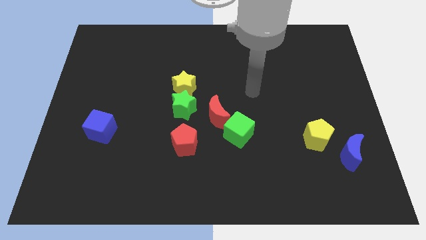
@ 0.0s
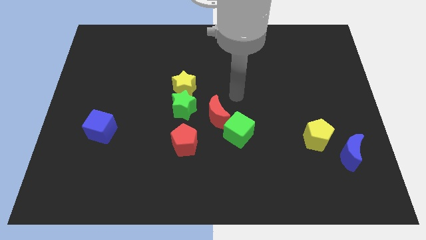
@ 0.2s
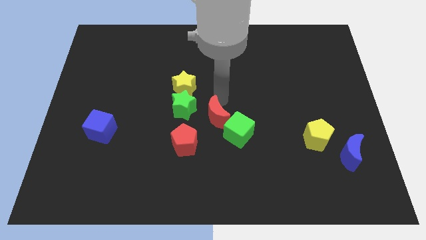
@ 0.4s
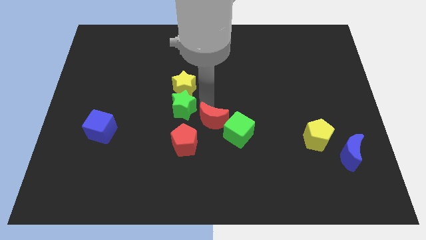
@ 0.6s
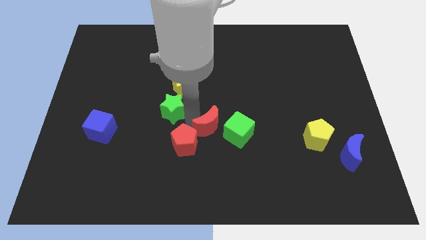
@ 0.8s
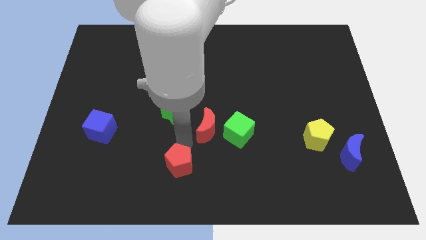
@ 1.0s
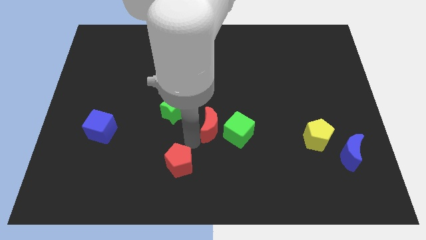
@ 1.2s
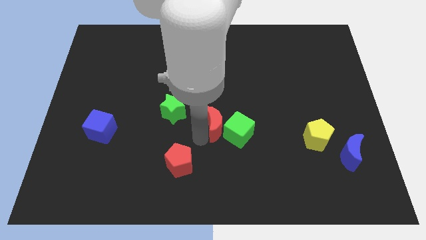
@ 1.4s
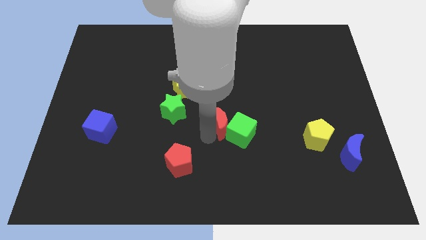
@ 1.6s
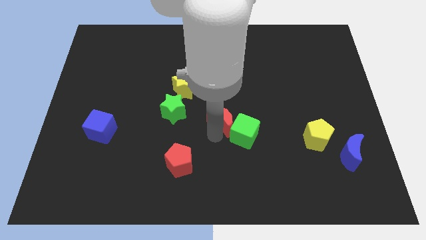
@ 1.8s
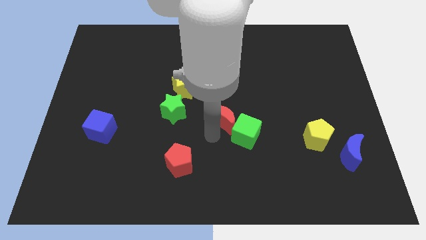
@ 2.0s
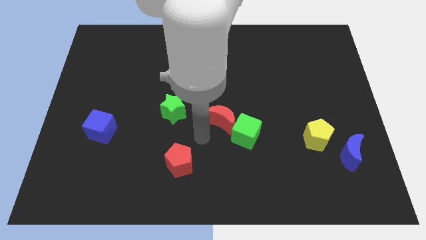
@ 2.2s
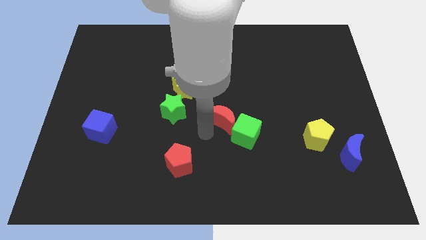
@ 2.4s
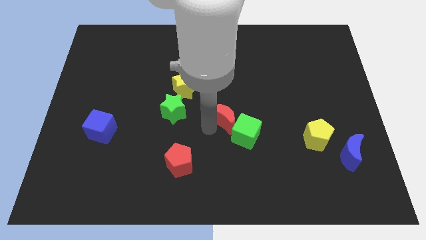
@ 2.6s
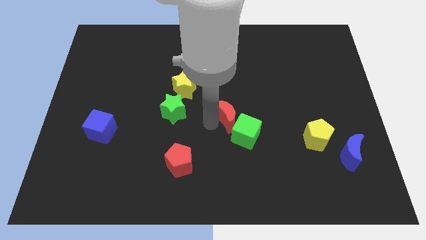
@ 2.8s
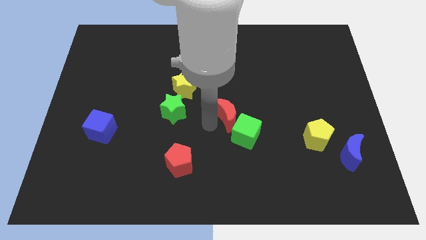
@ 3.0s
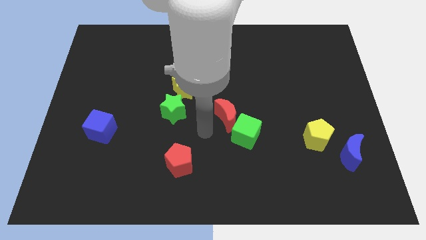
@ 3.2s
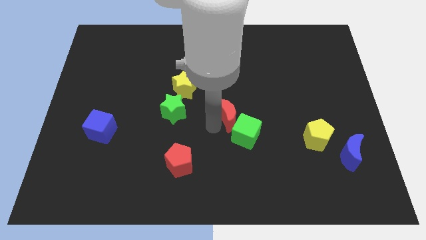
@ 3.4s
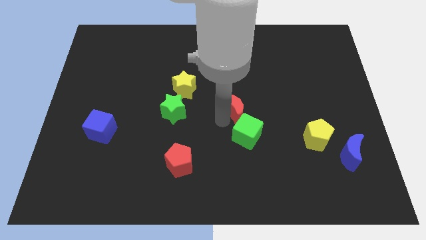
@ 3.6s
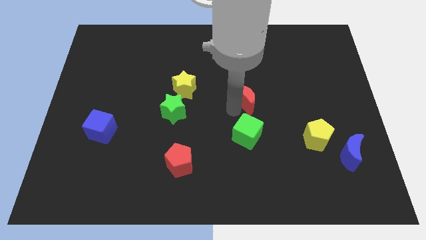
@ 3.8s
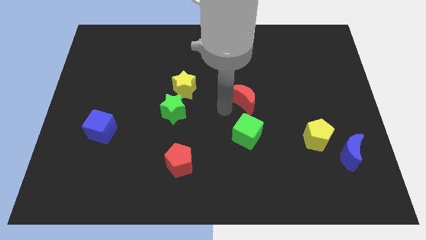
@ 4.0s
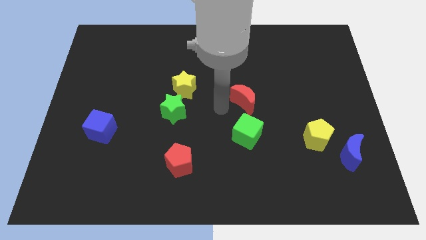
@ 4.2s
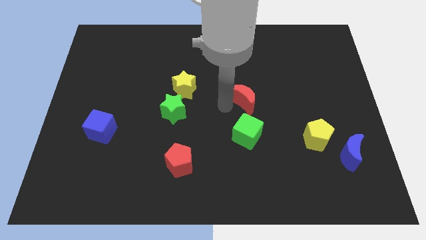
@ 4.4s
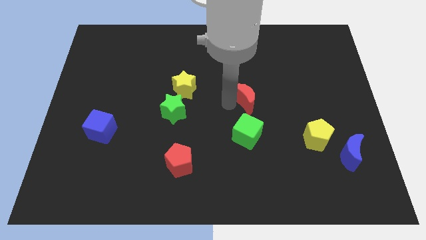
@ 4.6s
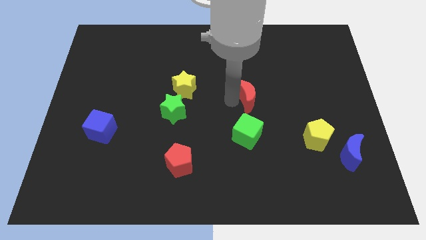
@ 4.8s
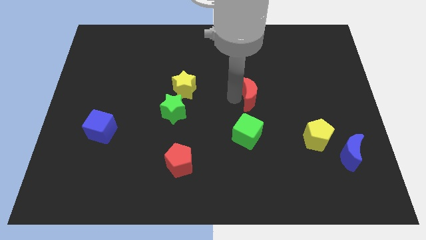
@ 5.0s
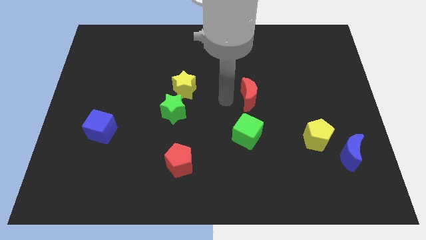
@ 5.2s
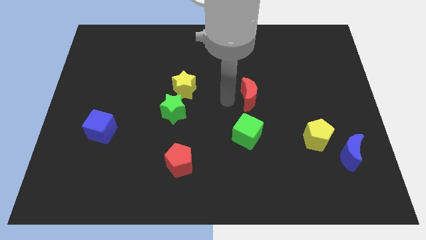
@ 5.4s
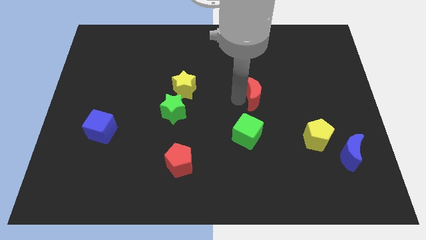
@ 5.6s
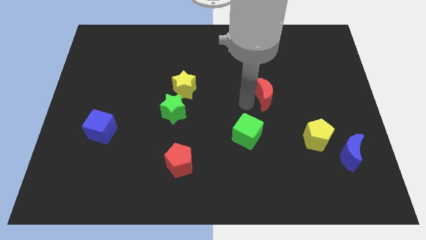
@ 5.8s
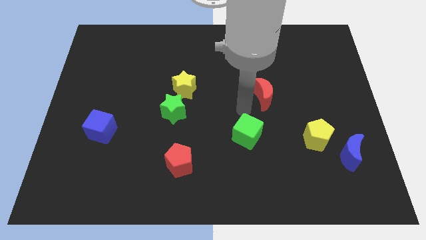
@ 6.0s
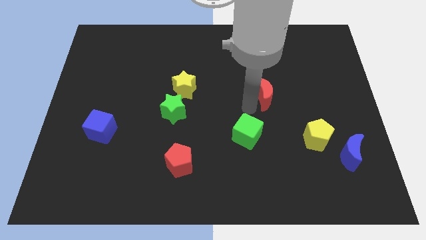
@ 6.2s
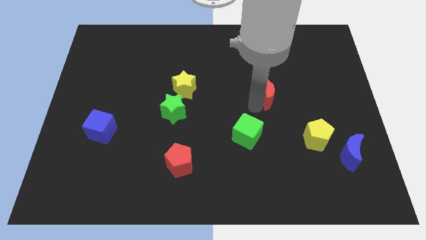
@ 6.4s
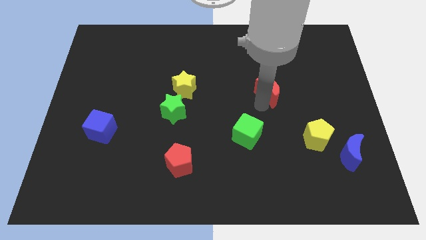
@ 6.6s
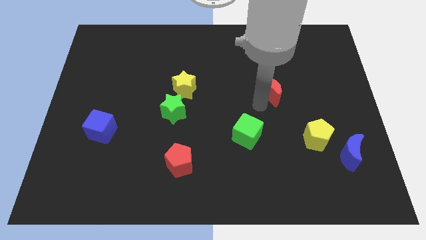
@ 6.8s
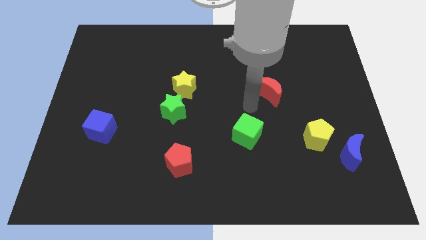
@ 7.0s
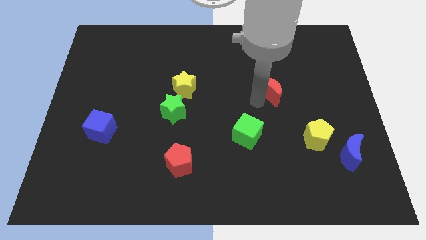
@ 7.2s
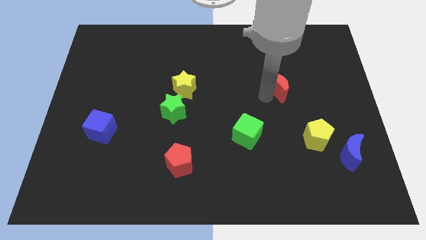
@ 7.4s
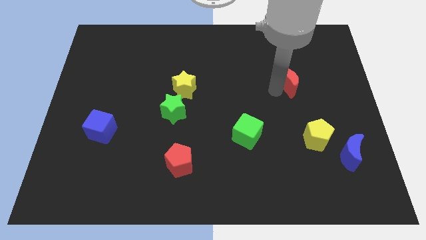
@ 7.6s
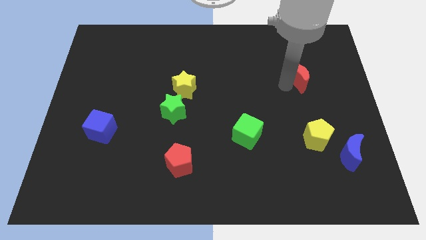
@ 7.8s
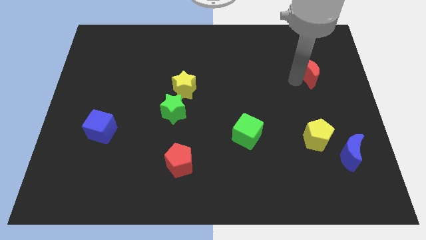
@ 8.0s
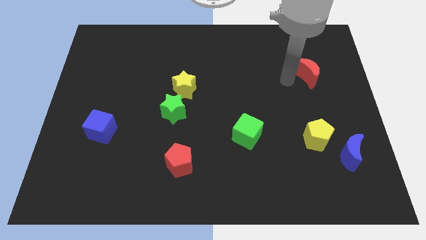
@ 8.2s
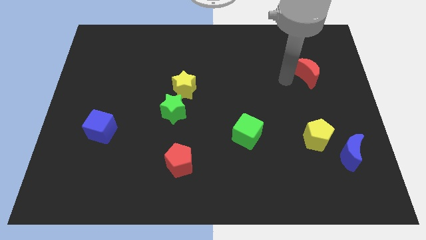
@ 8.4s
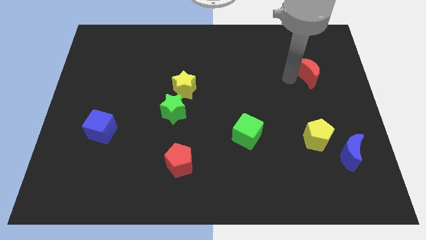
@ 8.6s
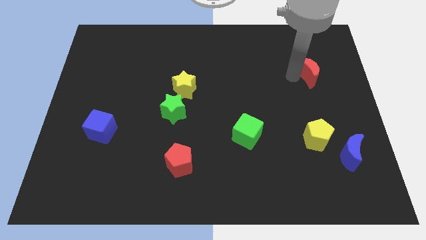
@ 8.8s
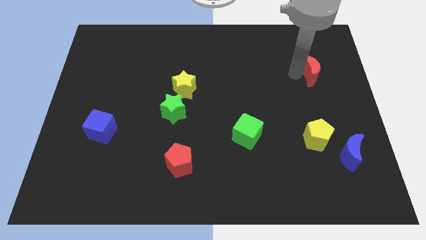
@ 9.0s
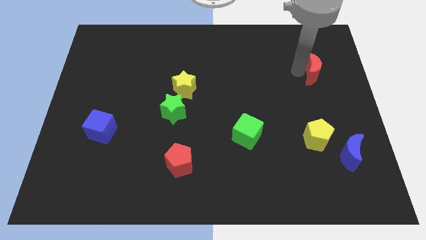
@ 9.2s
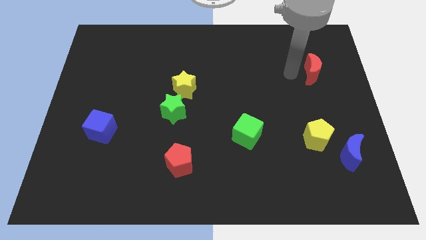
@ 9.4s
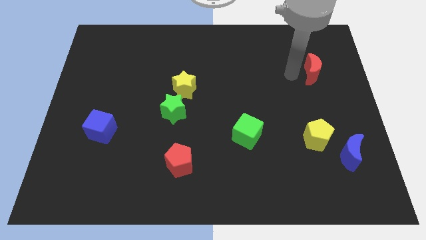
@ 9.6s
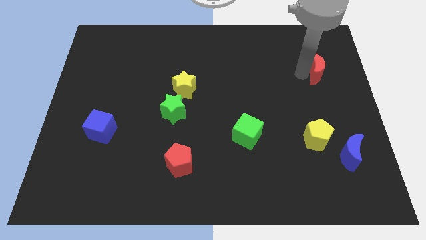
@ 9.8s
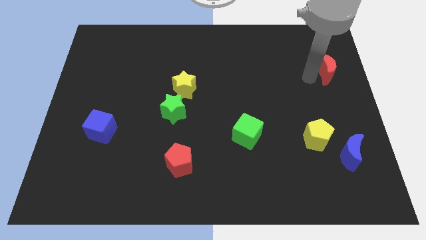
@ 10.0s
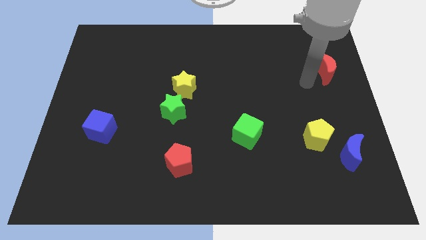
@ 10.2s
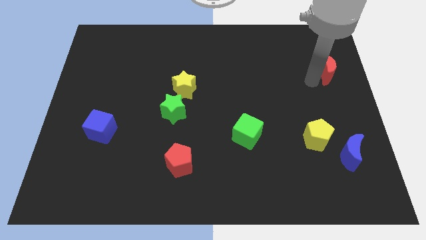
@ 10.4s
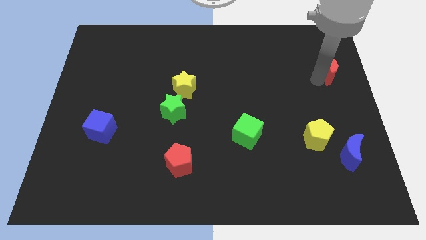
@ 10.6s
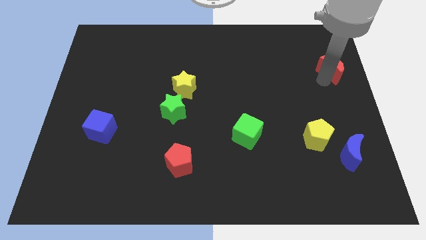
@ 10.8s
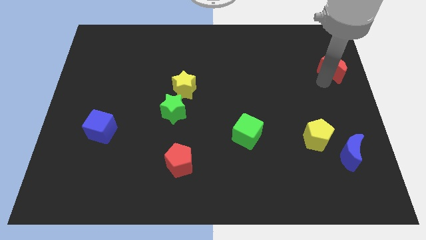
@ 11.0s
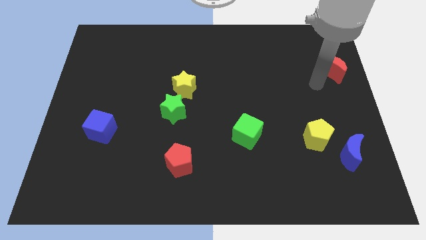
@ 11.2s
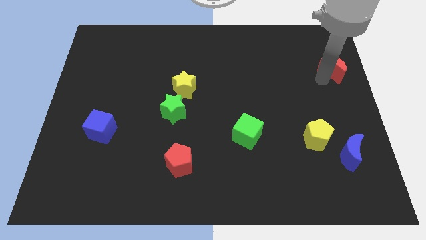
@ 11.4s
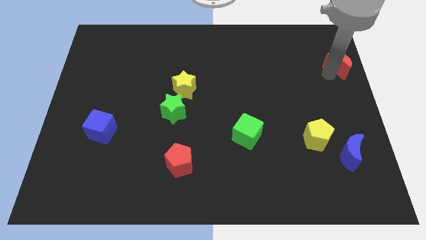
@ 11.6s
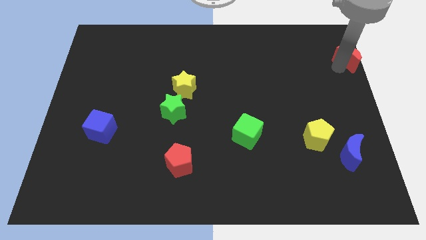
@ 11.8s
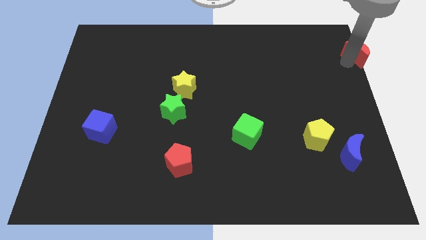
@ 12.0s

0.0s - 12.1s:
move the red moon to the top right corner
